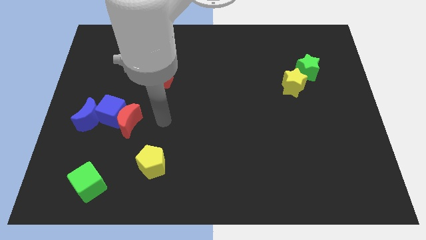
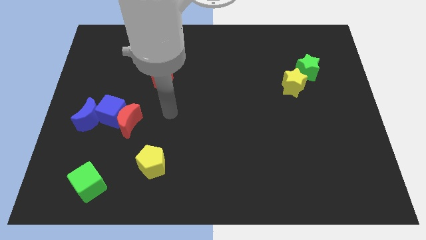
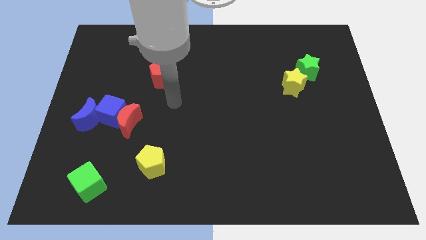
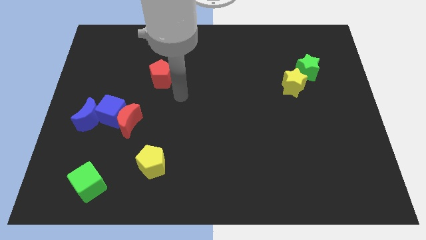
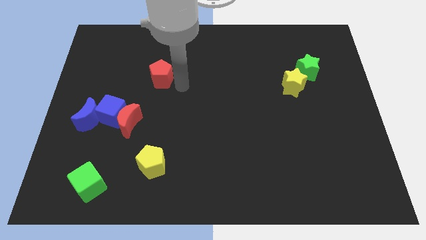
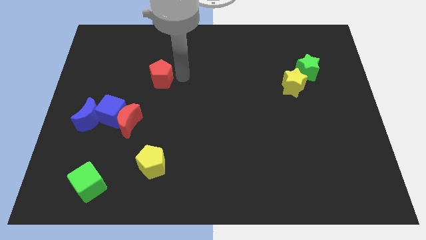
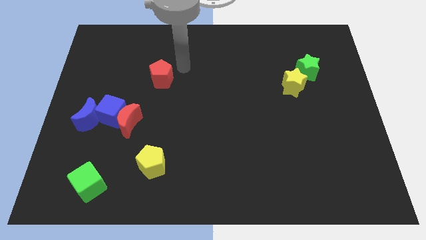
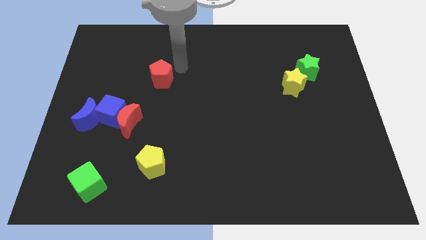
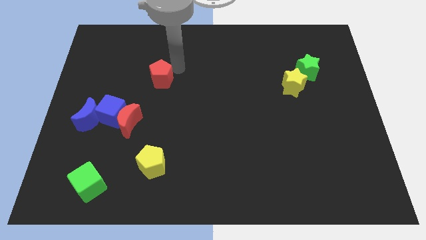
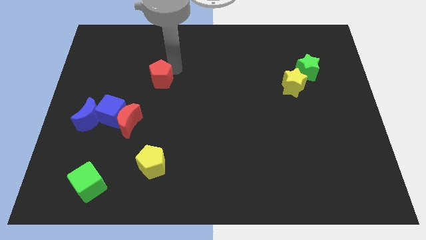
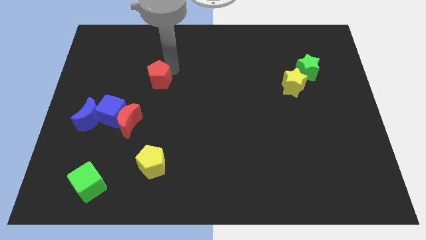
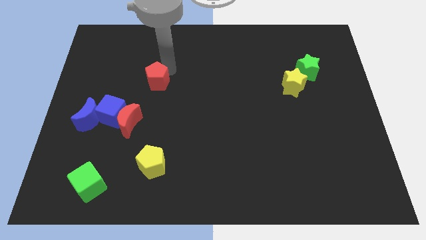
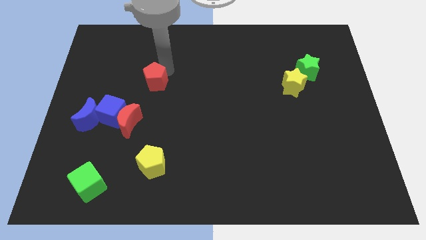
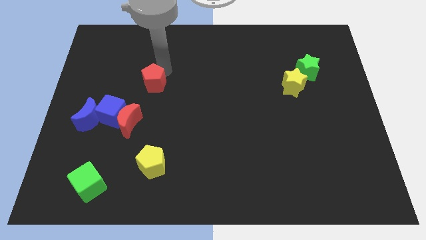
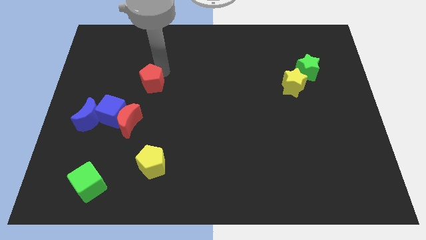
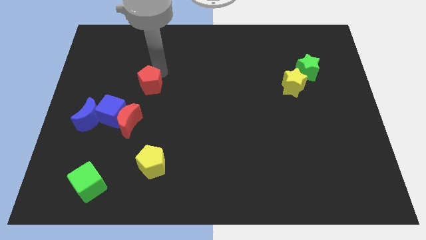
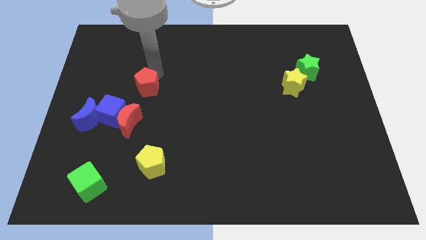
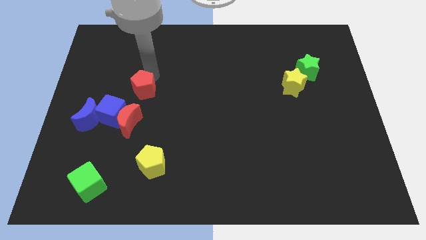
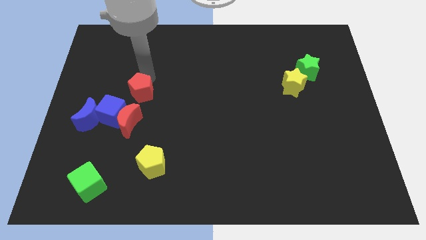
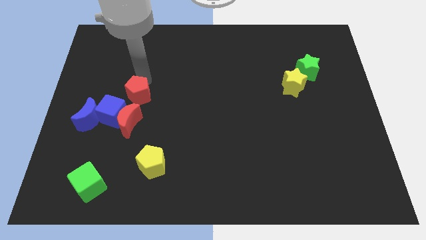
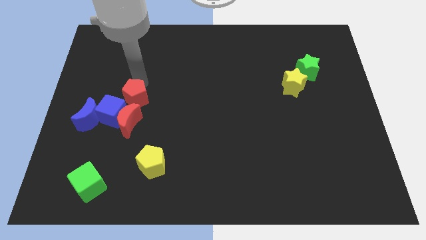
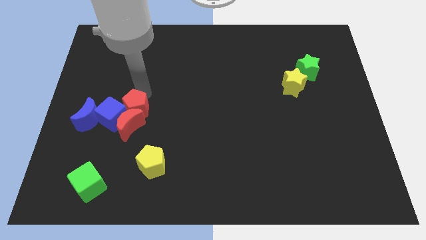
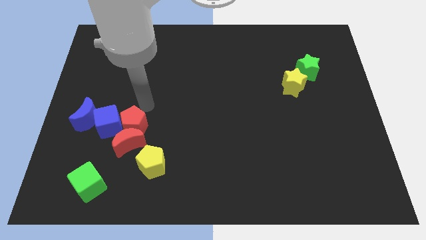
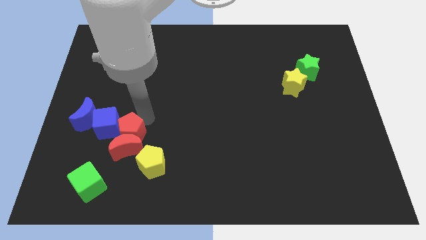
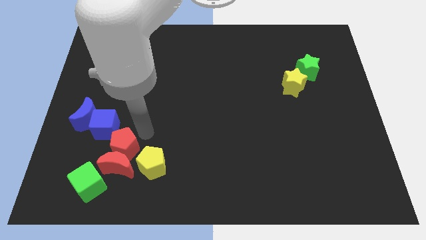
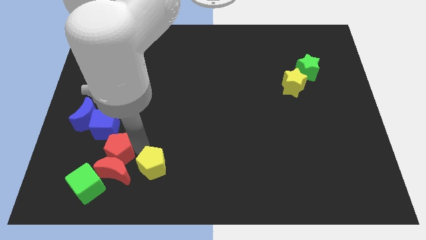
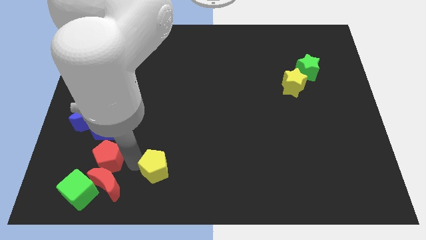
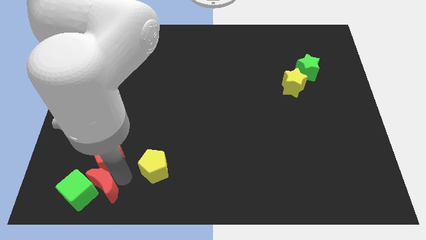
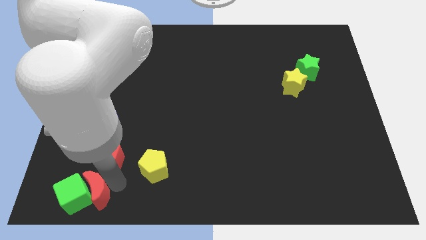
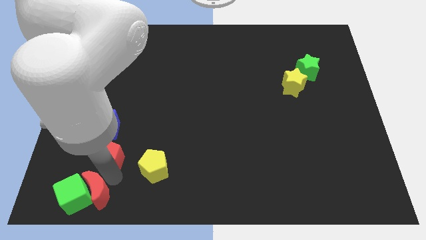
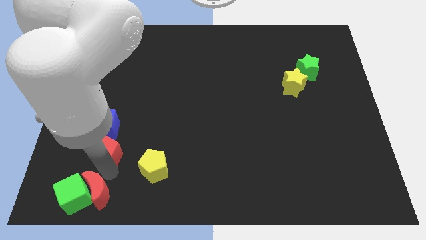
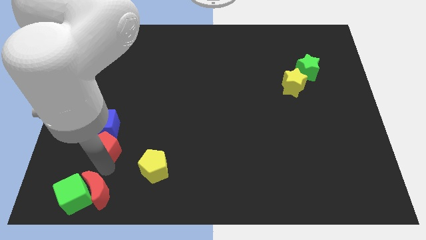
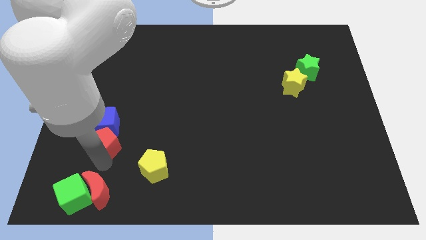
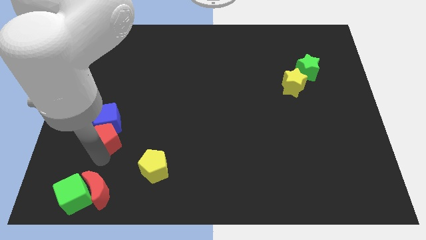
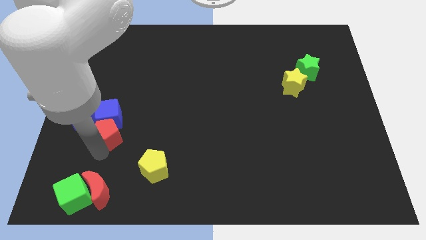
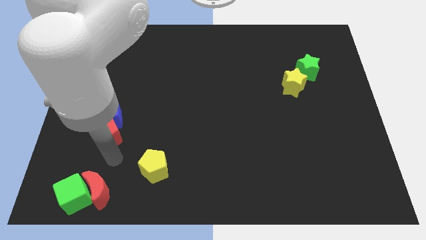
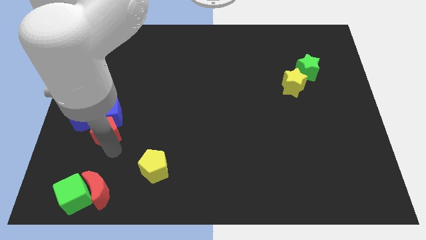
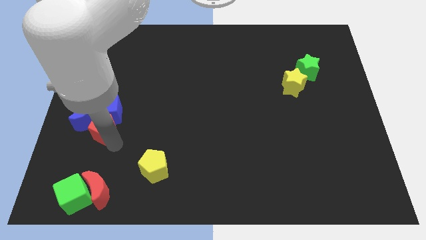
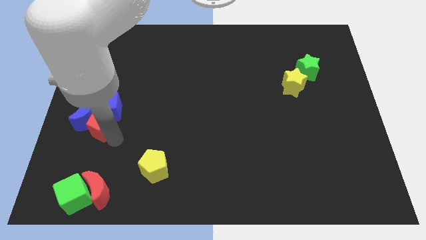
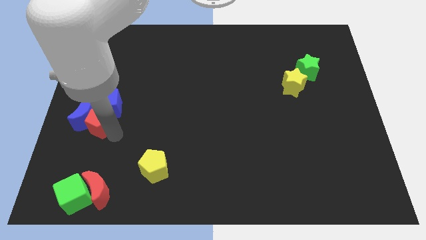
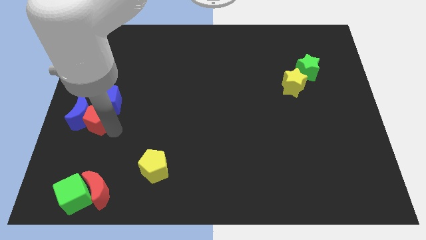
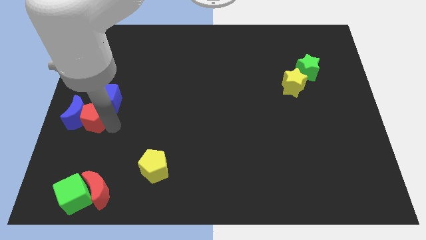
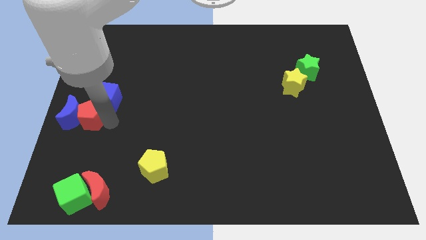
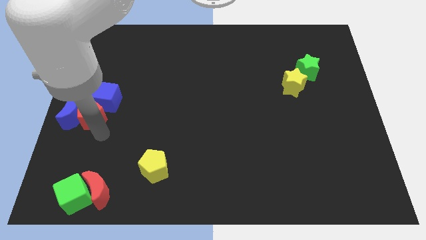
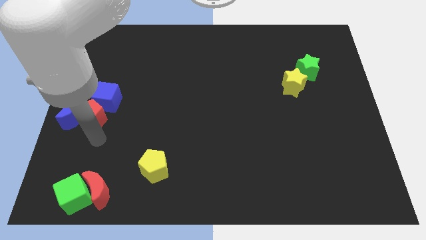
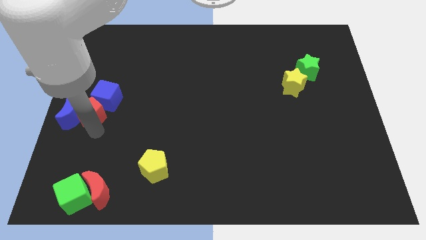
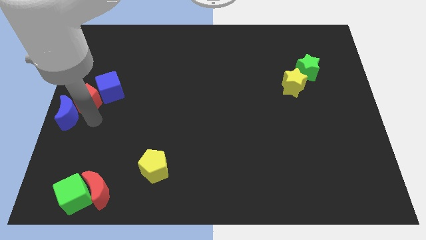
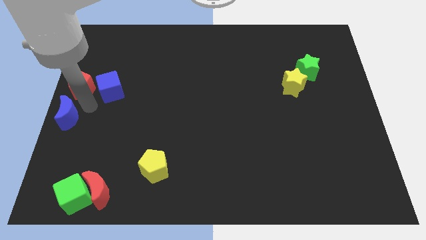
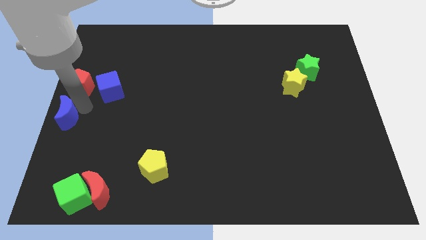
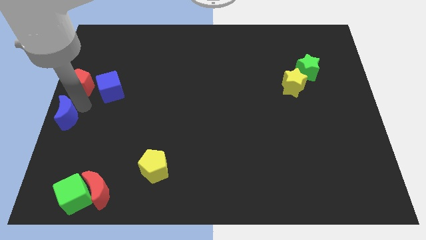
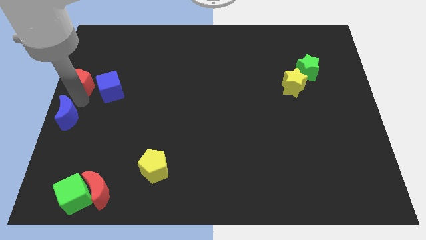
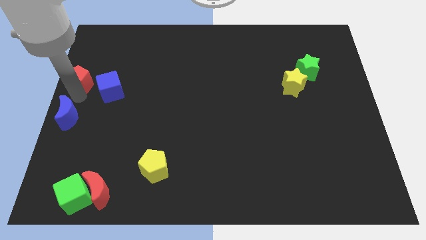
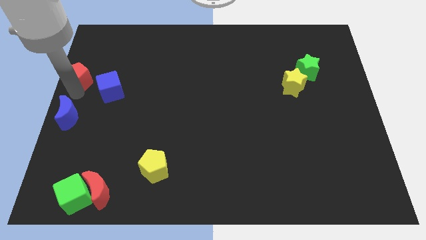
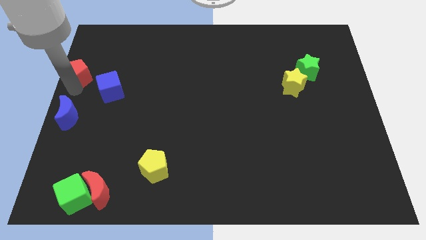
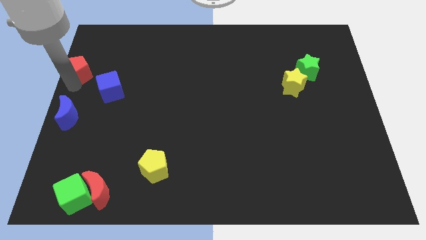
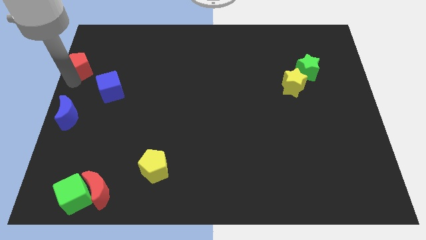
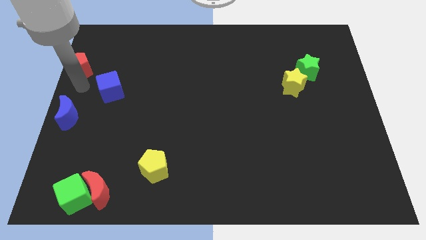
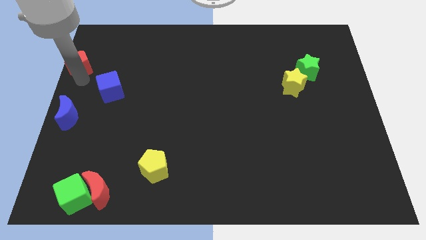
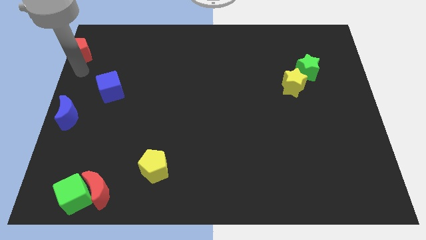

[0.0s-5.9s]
move the red pentagon to the top left

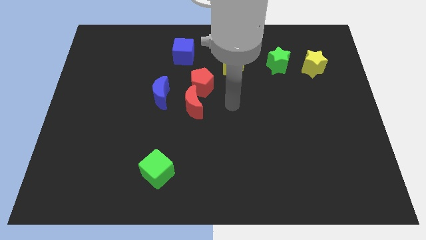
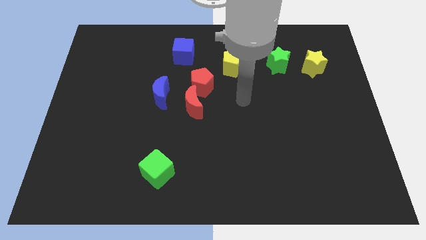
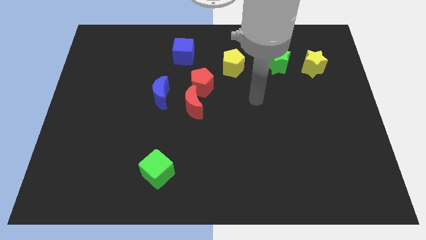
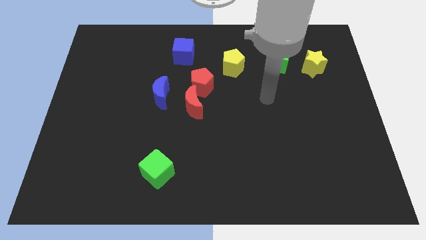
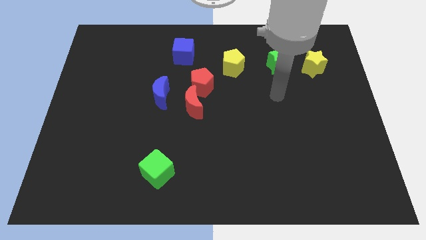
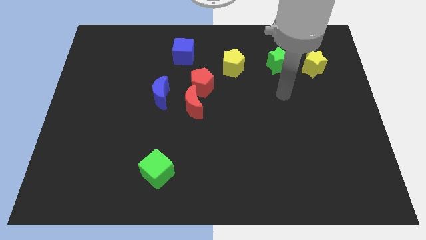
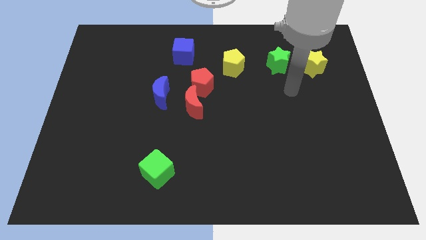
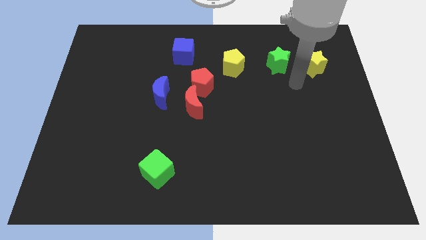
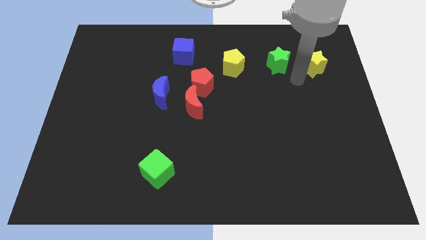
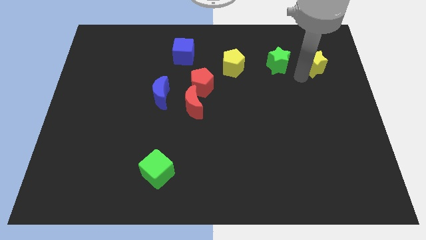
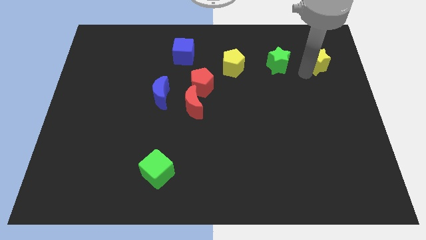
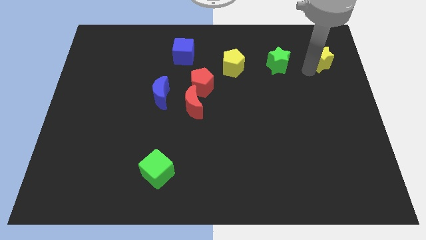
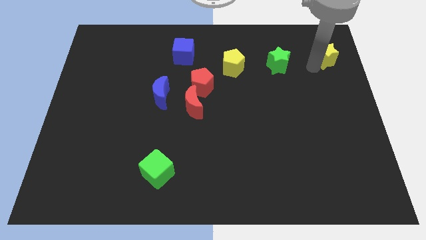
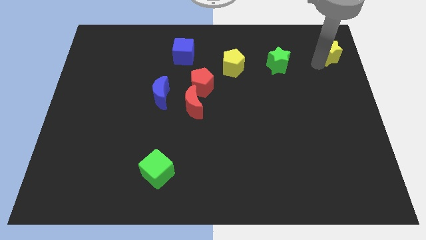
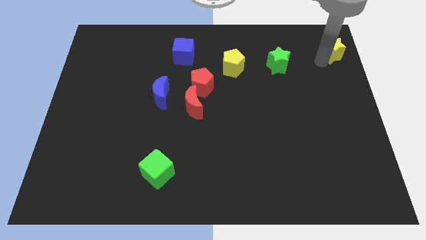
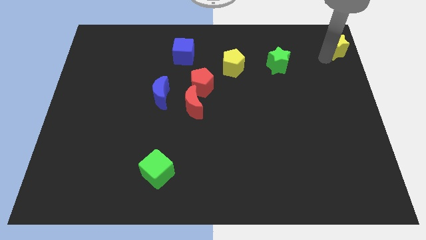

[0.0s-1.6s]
slide the yellow star to the top right of the board
